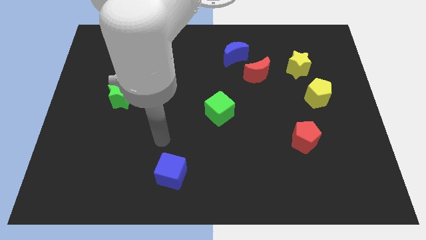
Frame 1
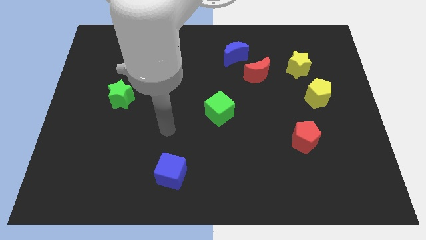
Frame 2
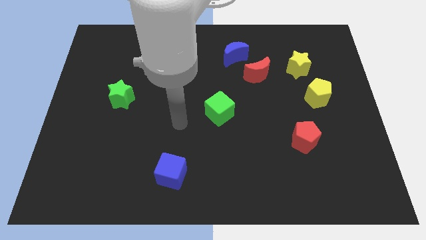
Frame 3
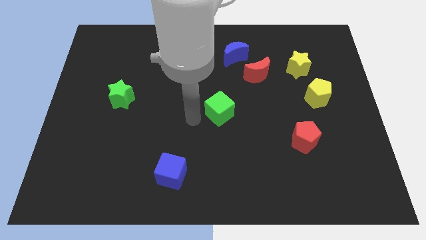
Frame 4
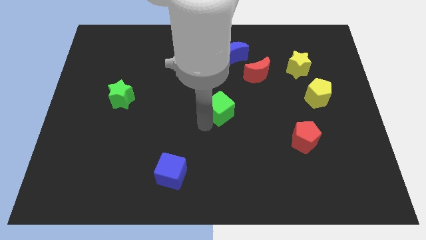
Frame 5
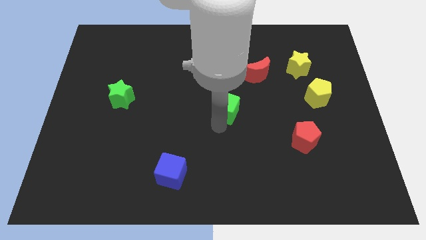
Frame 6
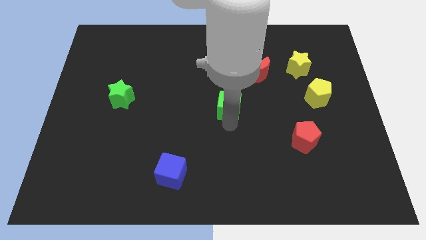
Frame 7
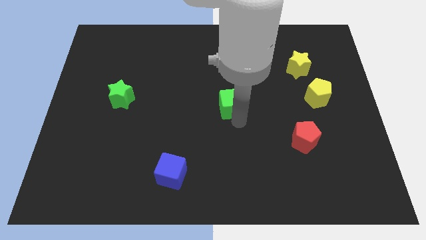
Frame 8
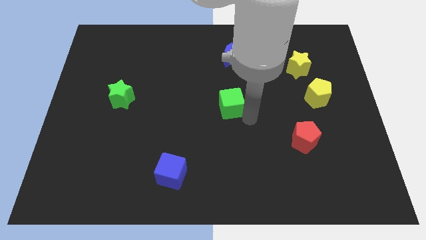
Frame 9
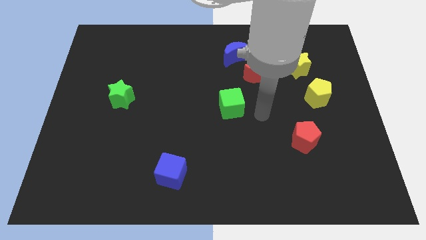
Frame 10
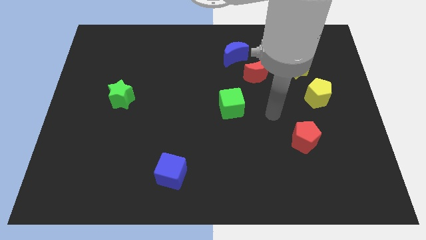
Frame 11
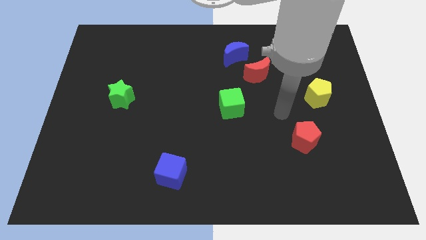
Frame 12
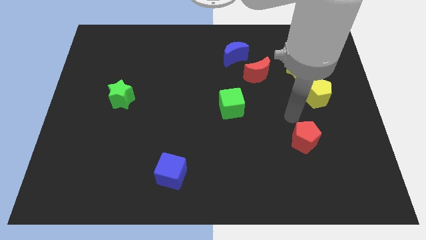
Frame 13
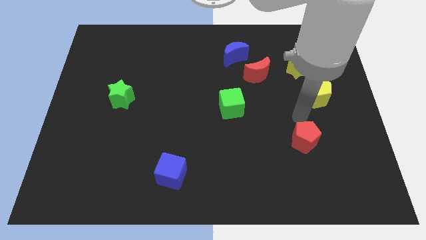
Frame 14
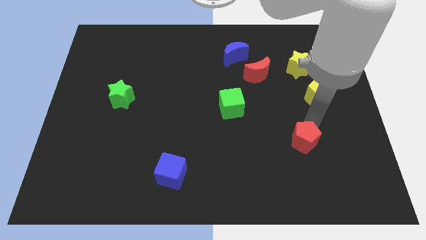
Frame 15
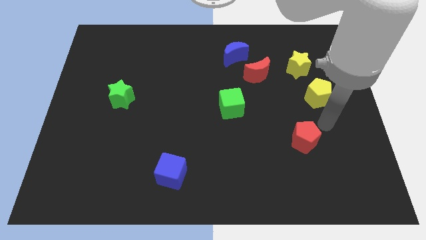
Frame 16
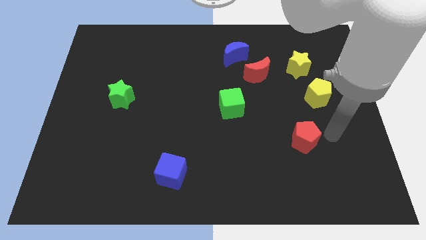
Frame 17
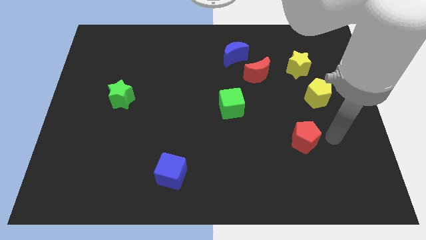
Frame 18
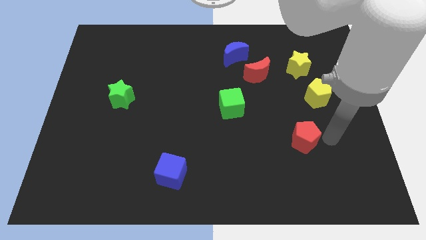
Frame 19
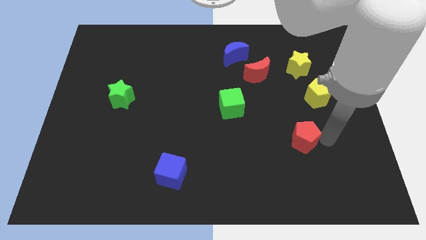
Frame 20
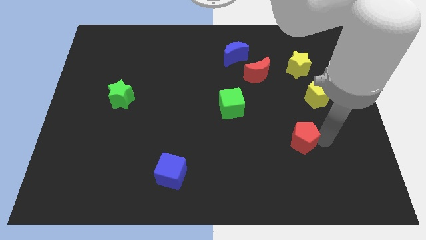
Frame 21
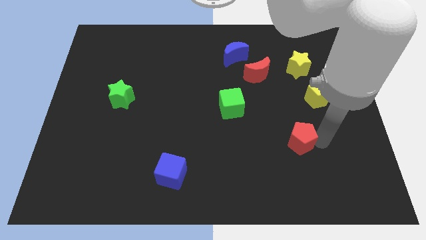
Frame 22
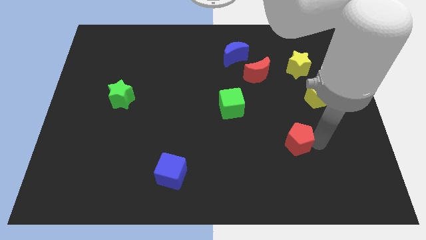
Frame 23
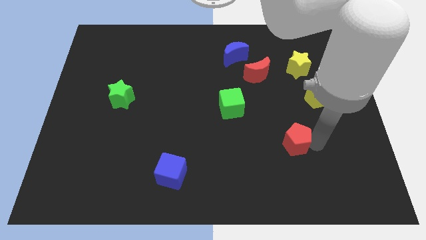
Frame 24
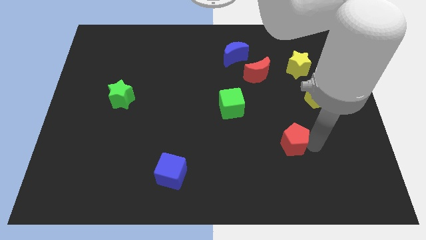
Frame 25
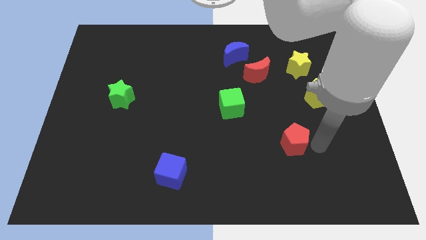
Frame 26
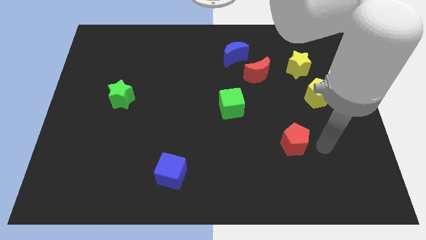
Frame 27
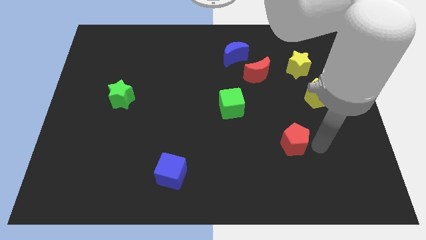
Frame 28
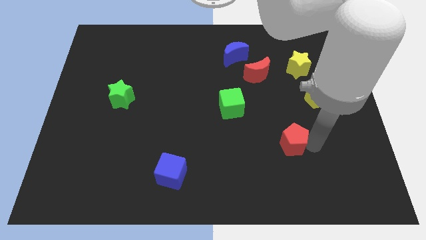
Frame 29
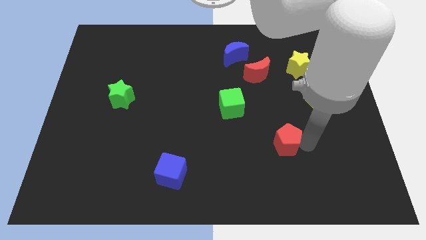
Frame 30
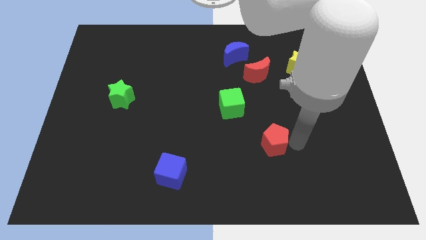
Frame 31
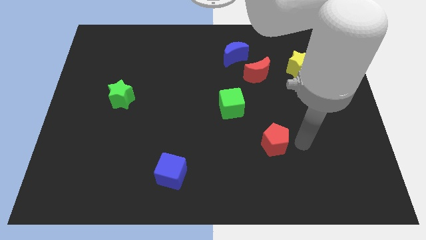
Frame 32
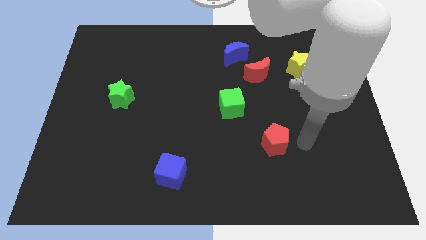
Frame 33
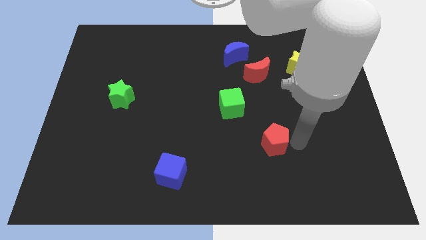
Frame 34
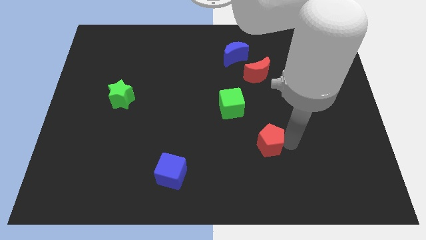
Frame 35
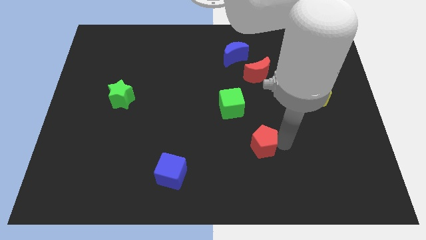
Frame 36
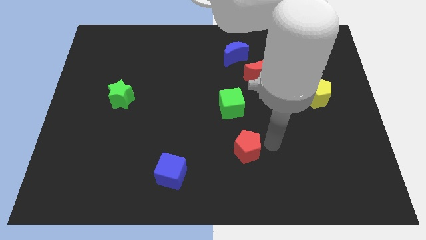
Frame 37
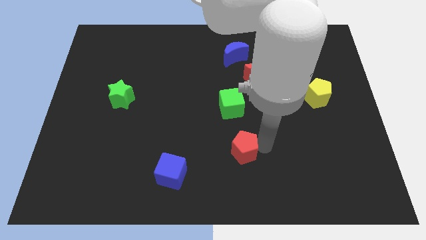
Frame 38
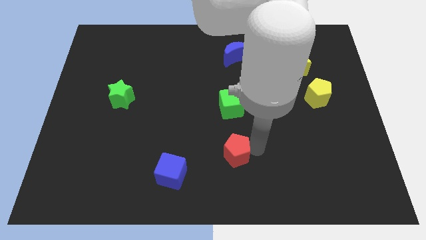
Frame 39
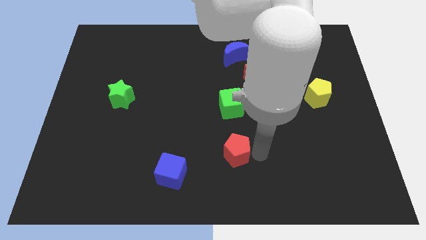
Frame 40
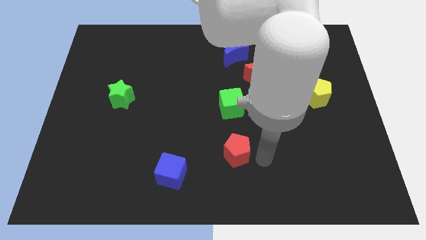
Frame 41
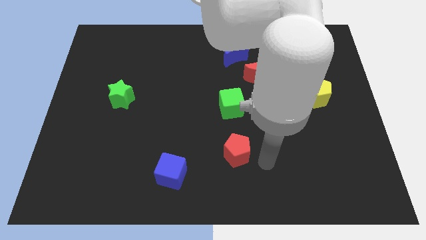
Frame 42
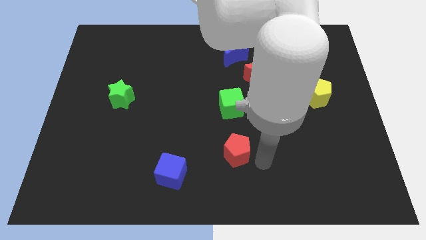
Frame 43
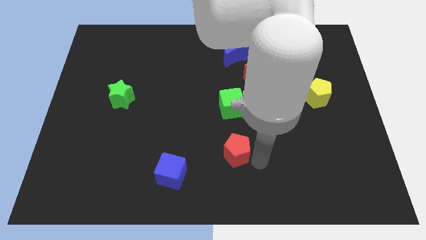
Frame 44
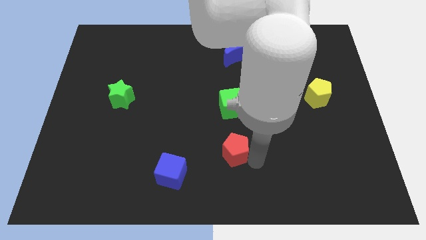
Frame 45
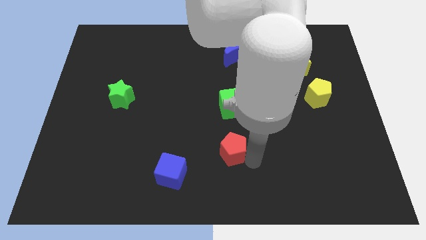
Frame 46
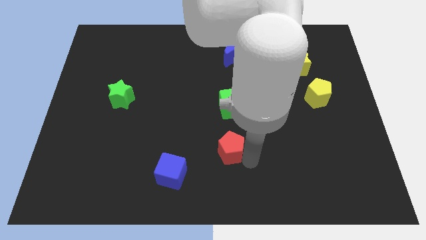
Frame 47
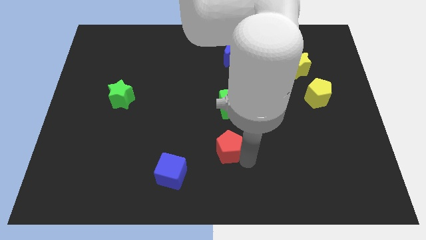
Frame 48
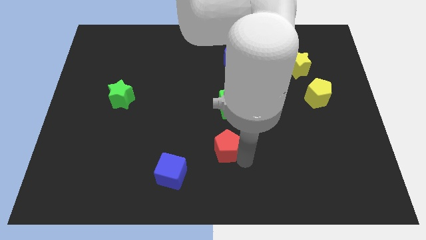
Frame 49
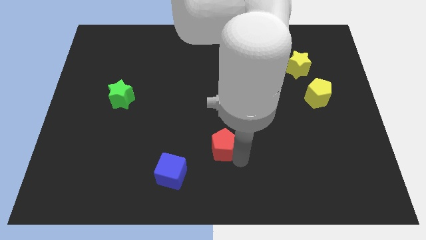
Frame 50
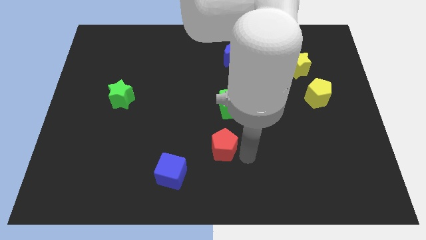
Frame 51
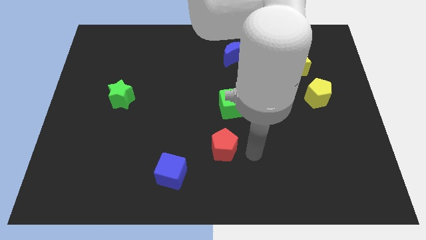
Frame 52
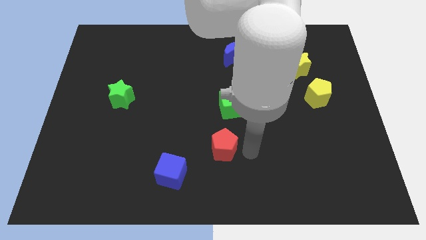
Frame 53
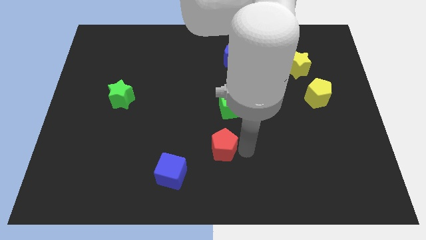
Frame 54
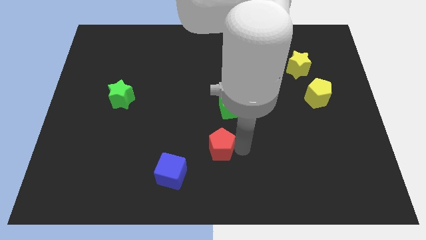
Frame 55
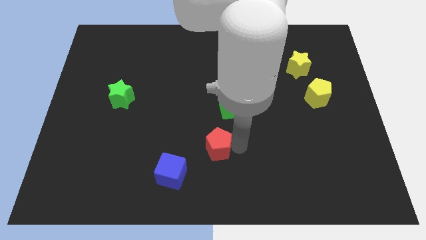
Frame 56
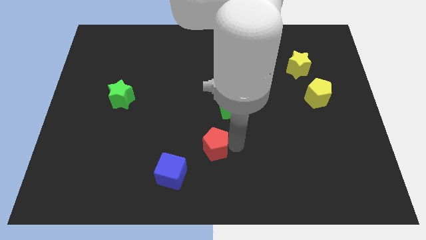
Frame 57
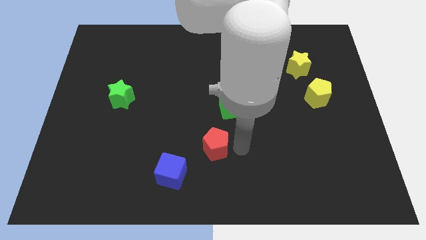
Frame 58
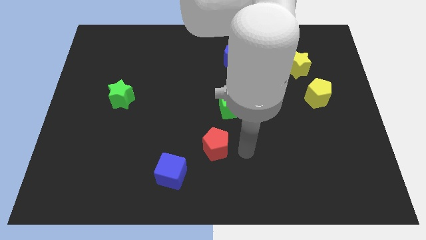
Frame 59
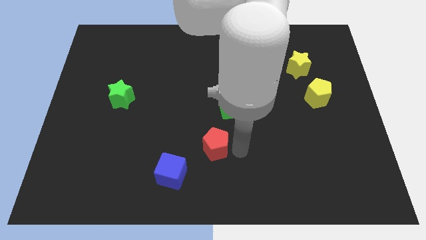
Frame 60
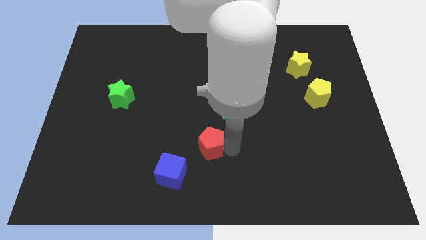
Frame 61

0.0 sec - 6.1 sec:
move the red pentagon to the left

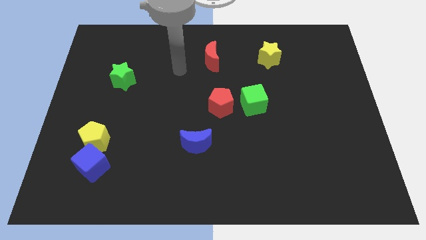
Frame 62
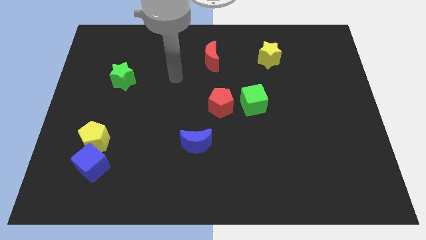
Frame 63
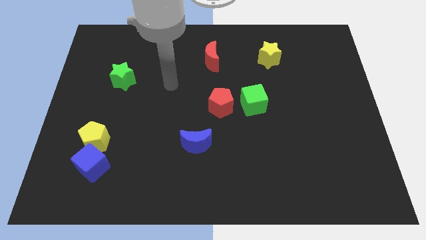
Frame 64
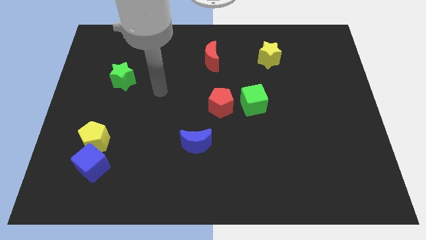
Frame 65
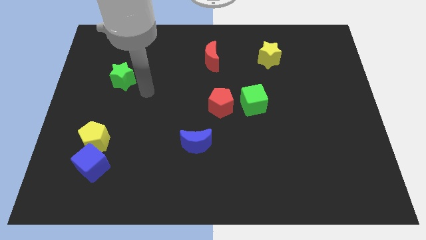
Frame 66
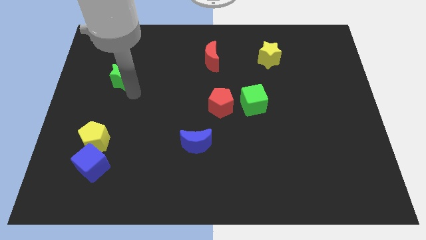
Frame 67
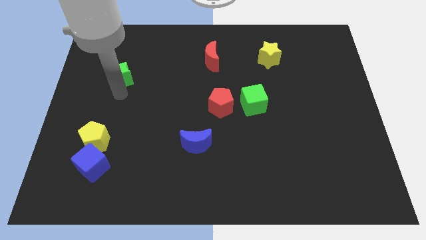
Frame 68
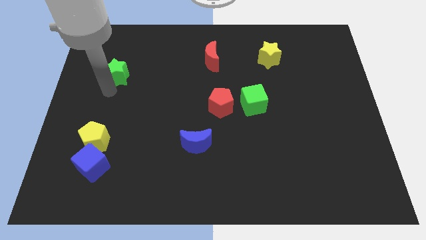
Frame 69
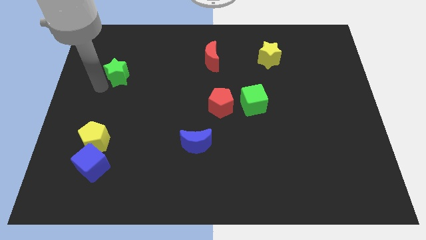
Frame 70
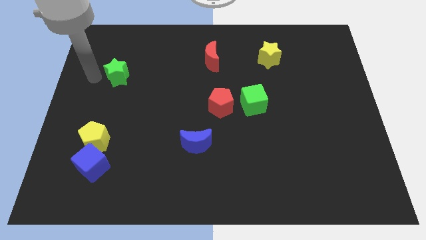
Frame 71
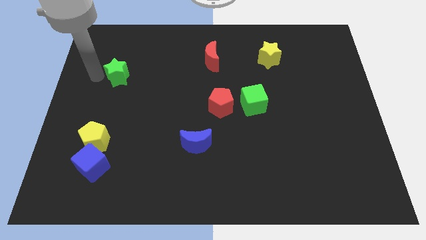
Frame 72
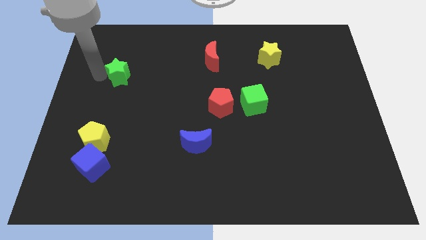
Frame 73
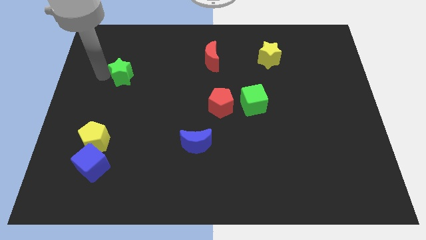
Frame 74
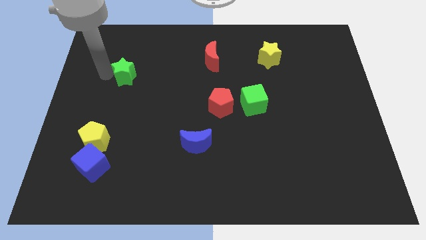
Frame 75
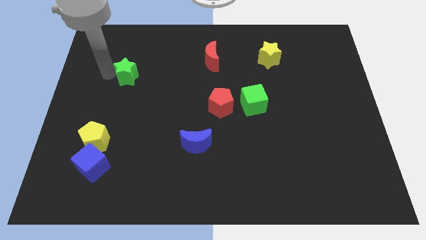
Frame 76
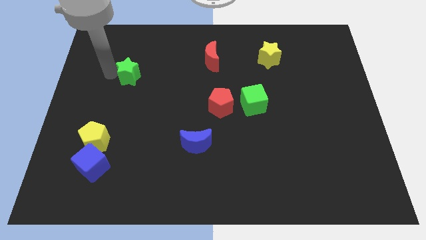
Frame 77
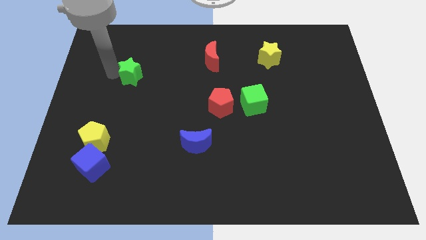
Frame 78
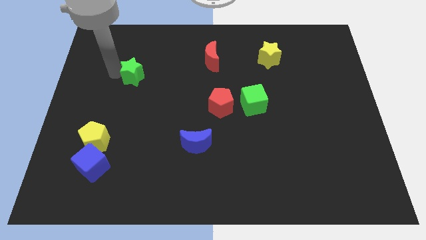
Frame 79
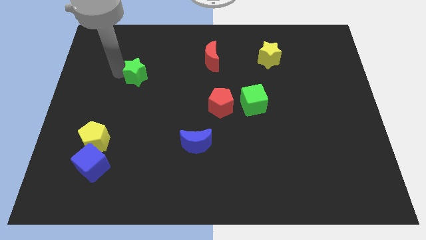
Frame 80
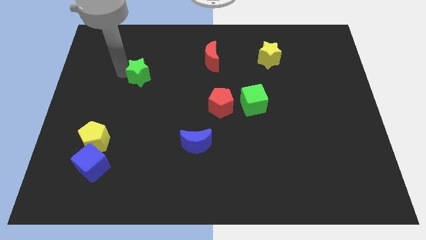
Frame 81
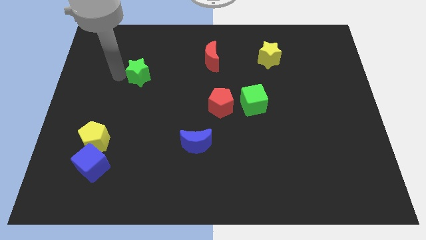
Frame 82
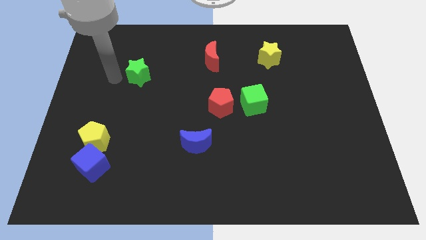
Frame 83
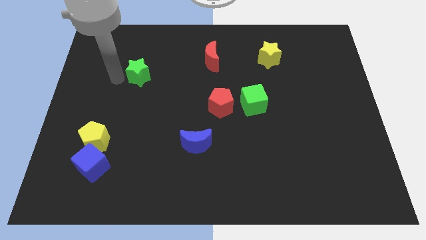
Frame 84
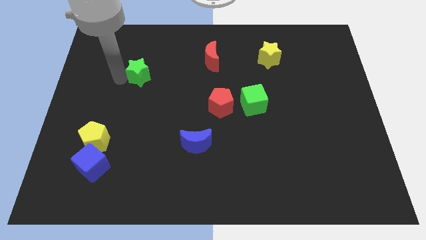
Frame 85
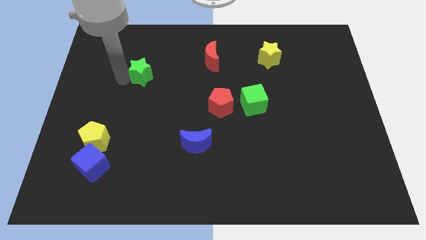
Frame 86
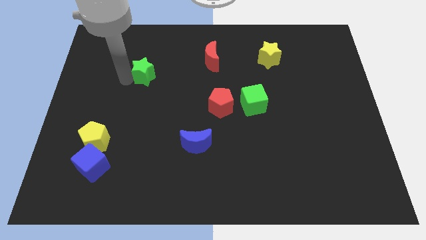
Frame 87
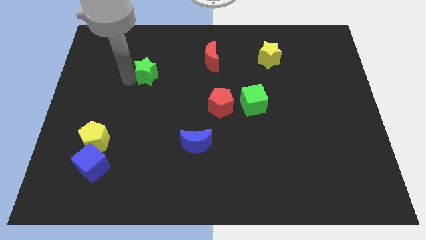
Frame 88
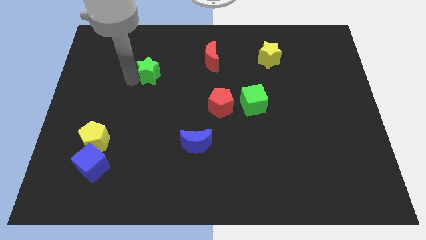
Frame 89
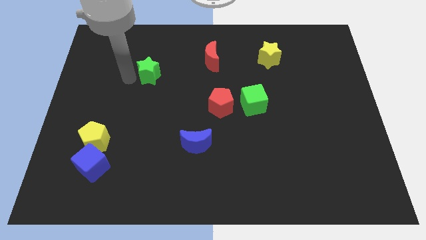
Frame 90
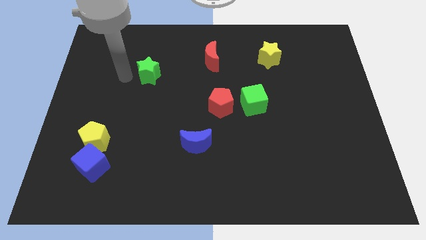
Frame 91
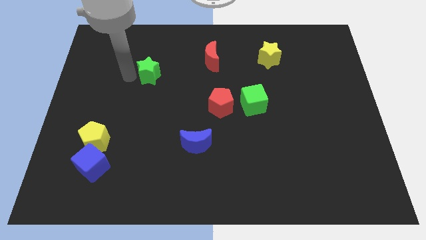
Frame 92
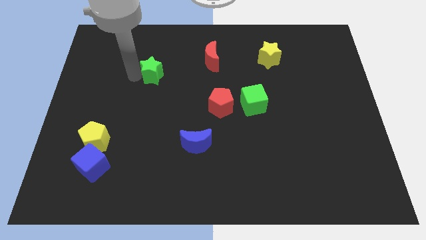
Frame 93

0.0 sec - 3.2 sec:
slightly push the green star right
